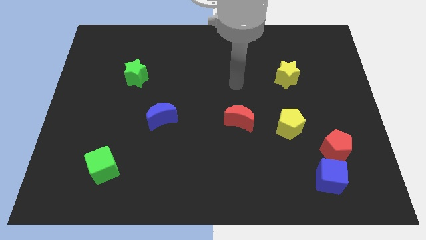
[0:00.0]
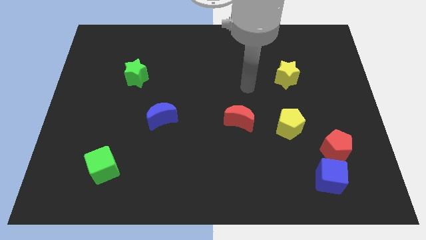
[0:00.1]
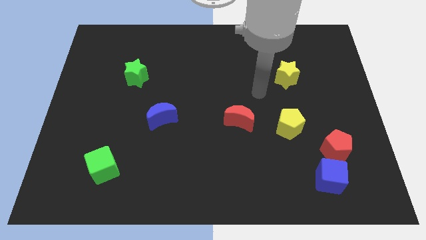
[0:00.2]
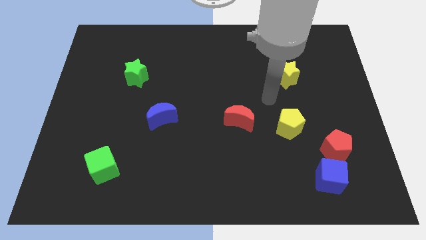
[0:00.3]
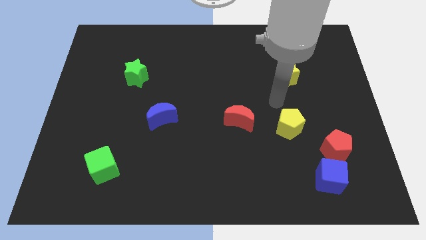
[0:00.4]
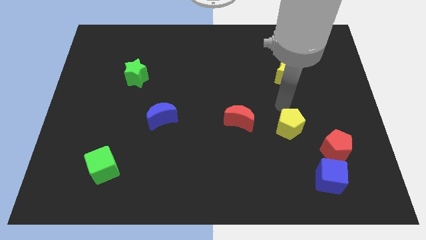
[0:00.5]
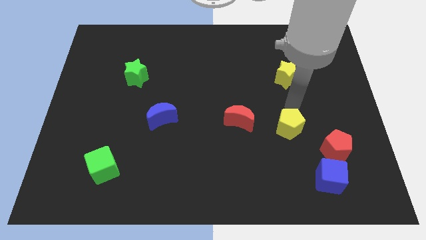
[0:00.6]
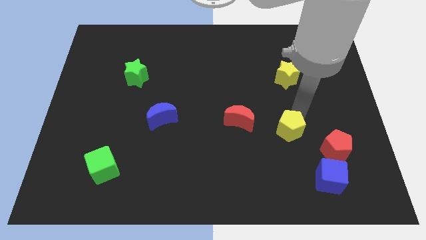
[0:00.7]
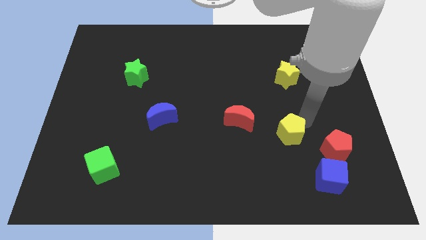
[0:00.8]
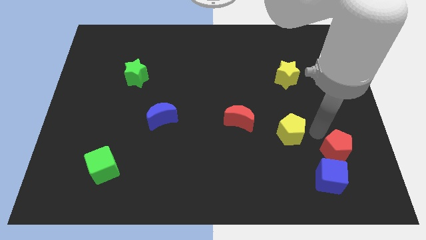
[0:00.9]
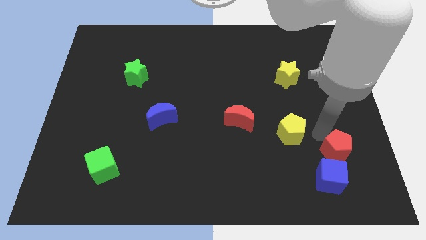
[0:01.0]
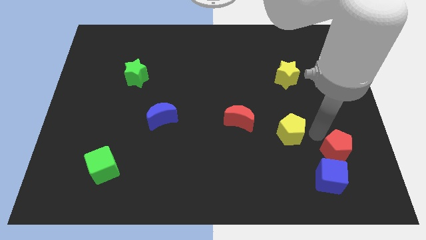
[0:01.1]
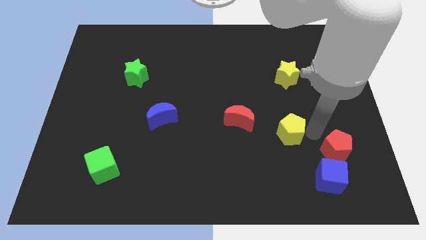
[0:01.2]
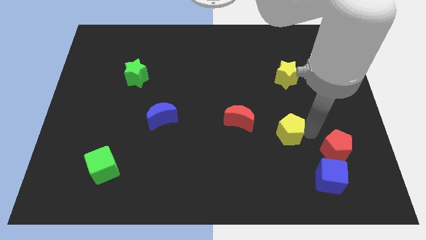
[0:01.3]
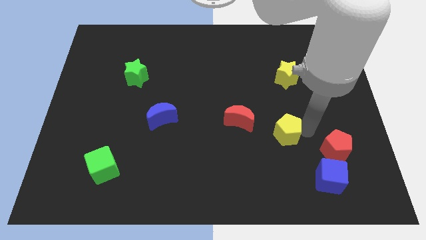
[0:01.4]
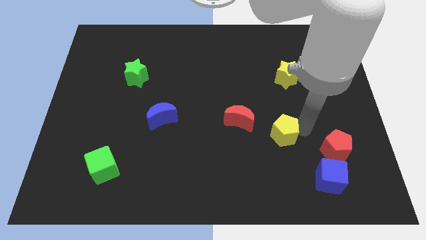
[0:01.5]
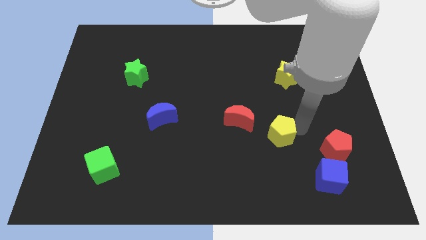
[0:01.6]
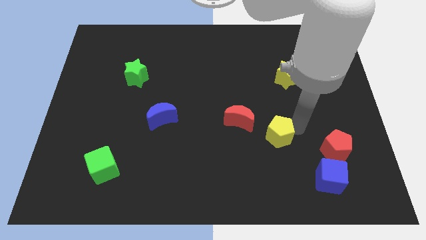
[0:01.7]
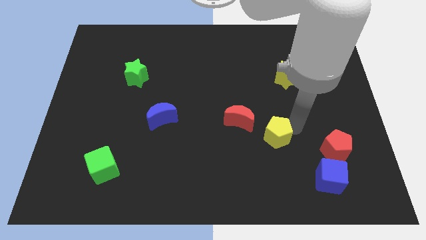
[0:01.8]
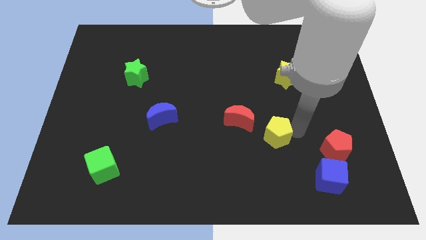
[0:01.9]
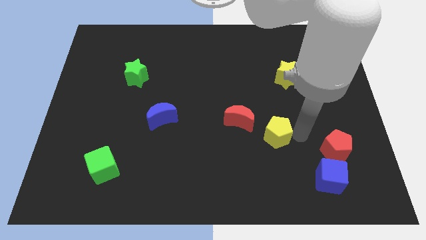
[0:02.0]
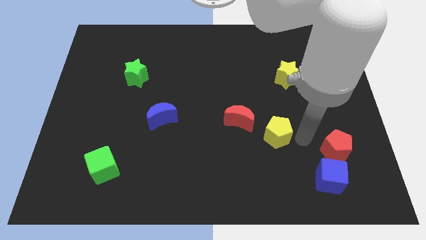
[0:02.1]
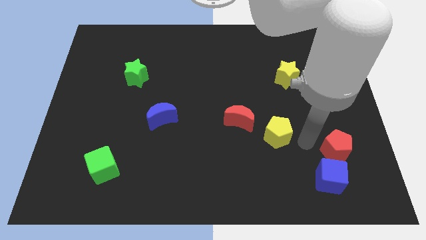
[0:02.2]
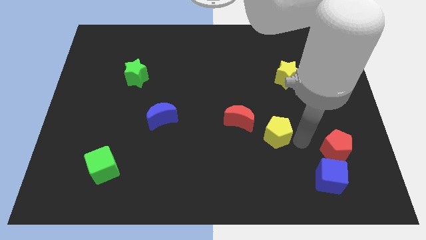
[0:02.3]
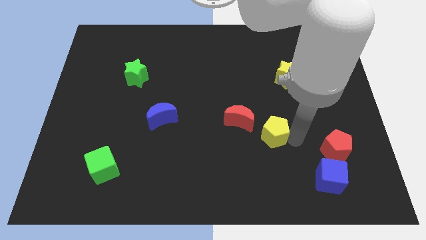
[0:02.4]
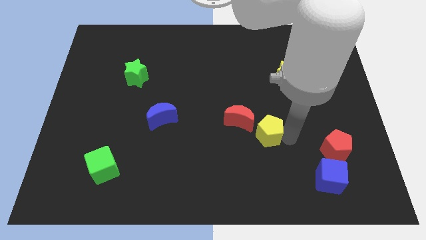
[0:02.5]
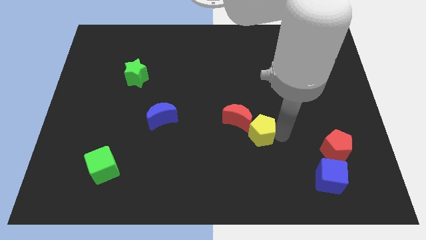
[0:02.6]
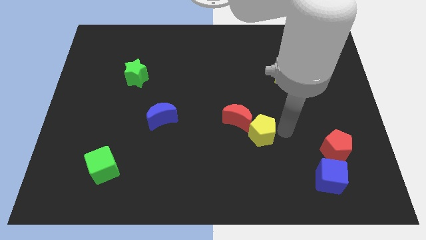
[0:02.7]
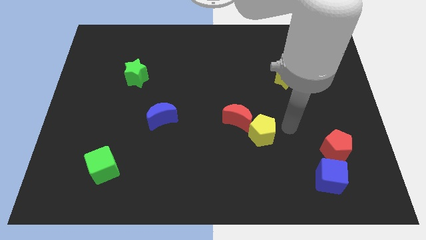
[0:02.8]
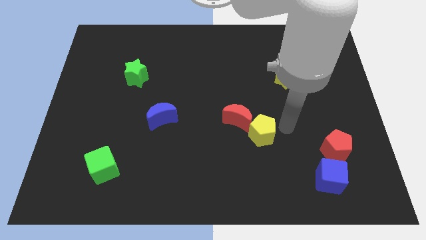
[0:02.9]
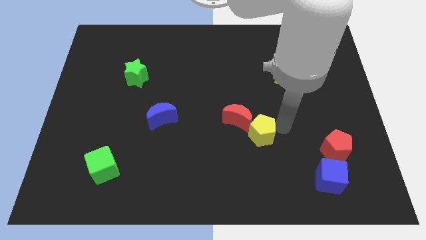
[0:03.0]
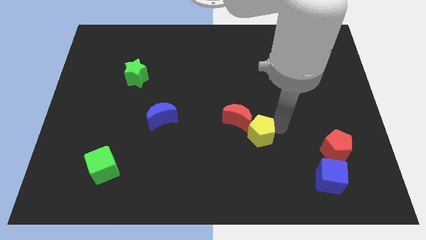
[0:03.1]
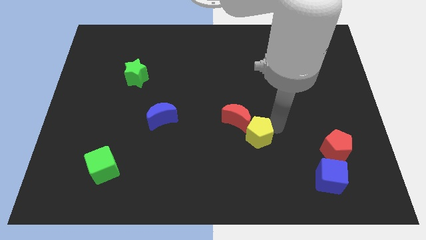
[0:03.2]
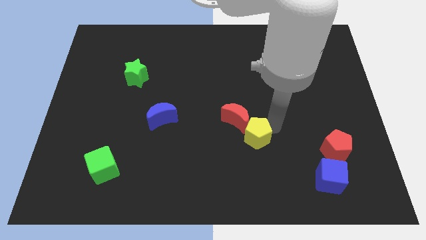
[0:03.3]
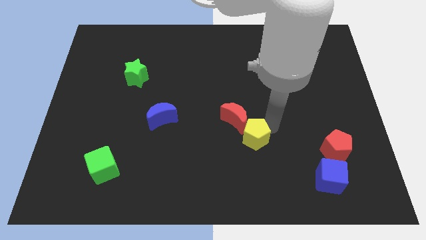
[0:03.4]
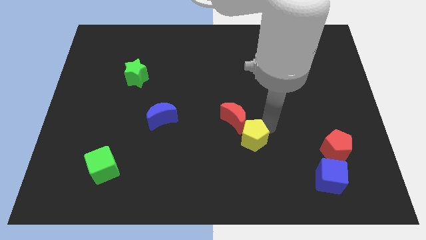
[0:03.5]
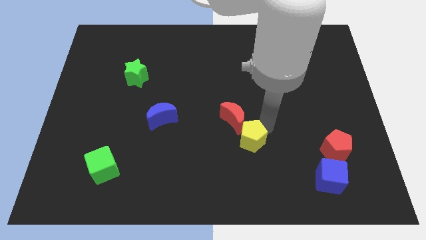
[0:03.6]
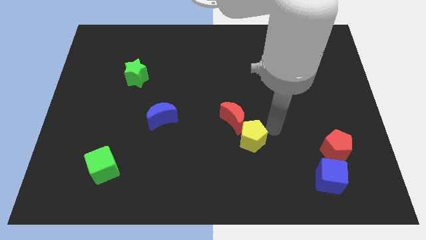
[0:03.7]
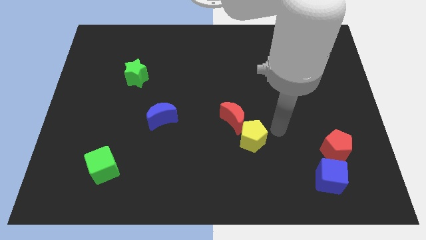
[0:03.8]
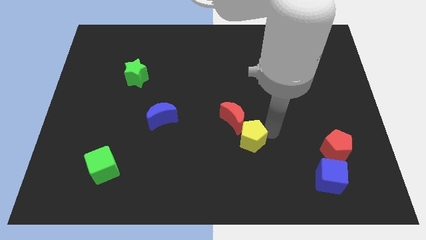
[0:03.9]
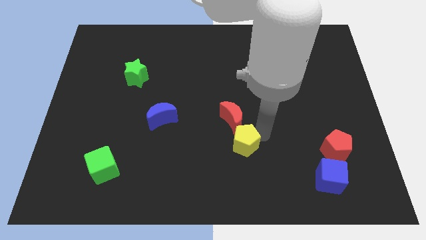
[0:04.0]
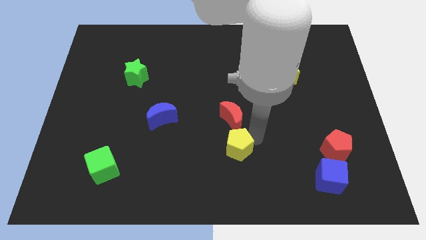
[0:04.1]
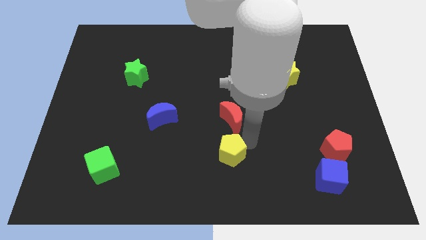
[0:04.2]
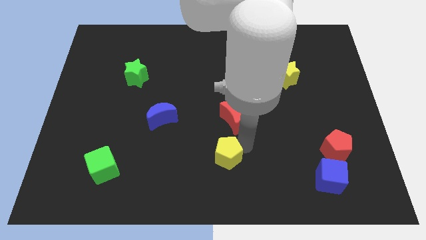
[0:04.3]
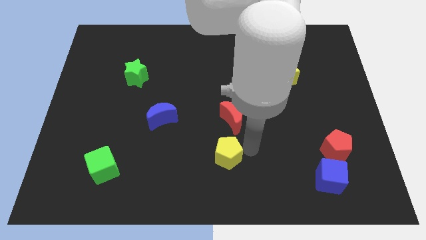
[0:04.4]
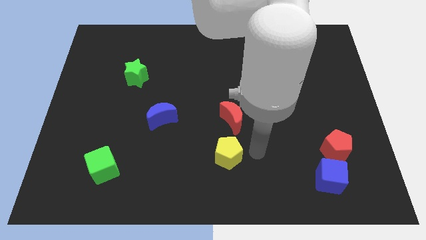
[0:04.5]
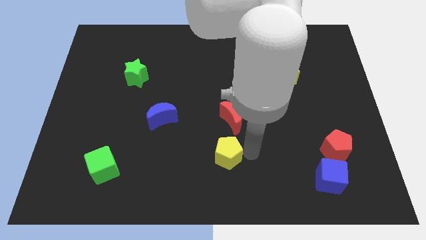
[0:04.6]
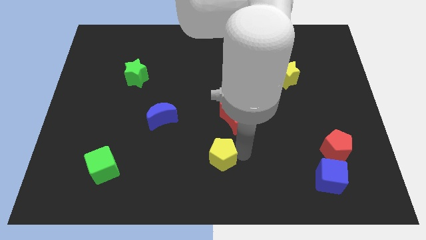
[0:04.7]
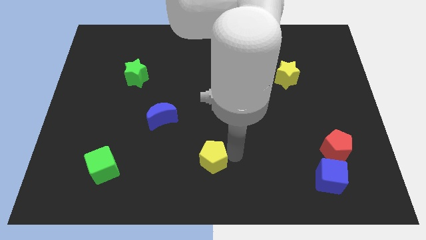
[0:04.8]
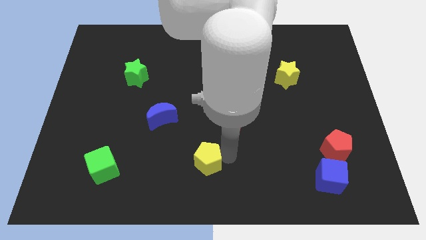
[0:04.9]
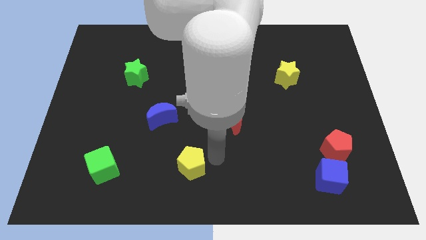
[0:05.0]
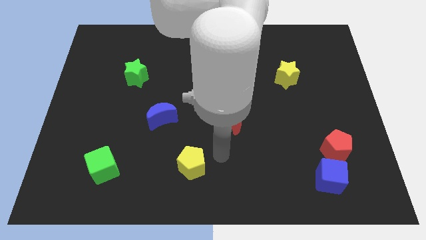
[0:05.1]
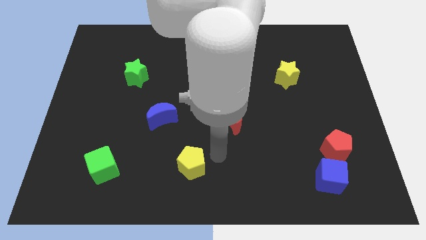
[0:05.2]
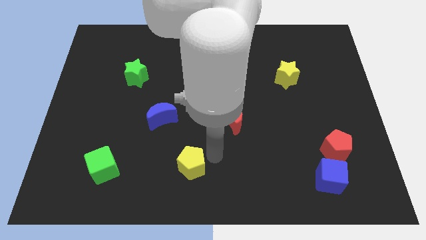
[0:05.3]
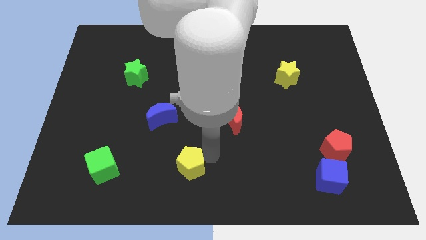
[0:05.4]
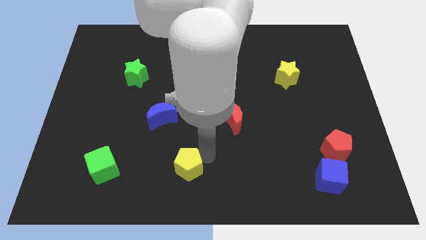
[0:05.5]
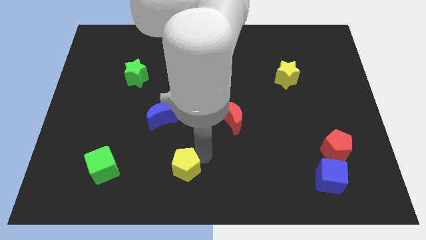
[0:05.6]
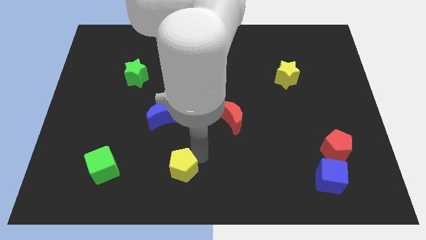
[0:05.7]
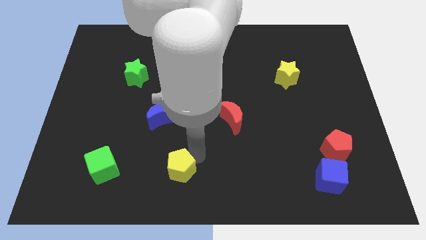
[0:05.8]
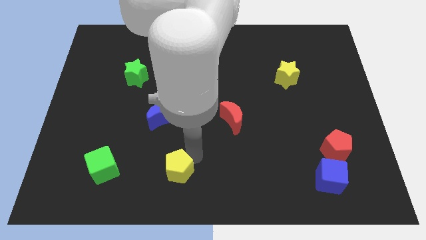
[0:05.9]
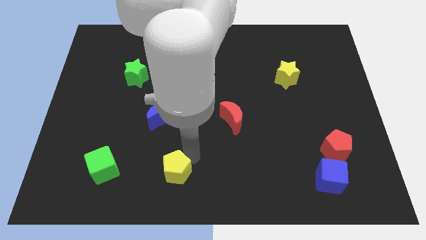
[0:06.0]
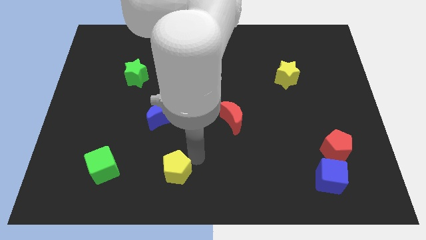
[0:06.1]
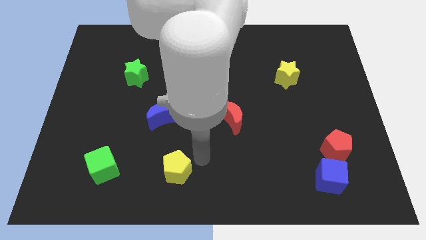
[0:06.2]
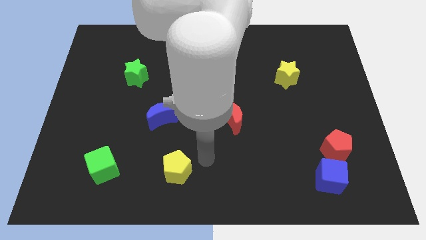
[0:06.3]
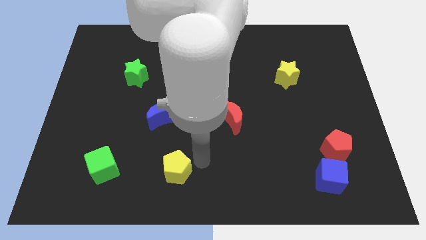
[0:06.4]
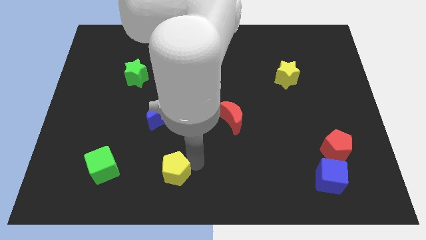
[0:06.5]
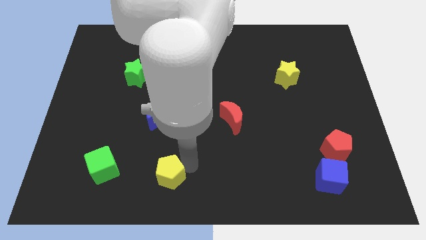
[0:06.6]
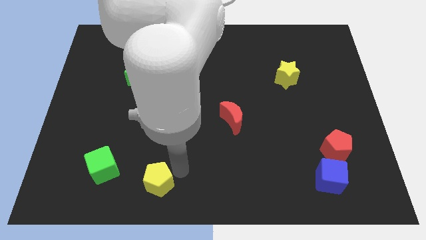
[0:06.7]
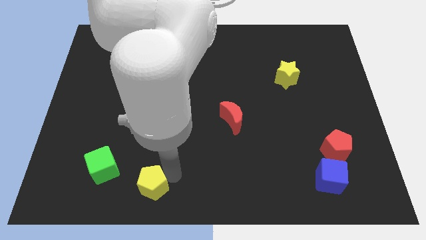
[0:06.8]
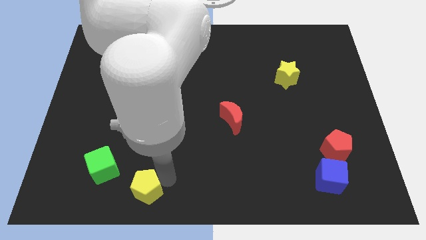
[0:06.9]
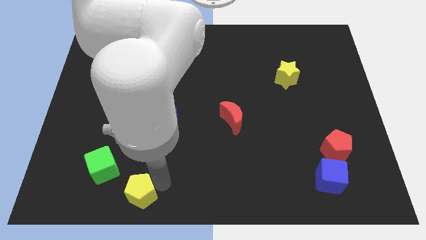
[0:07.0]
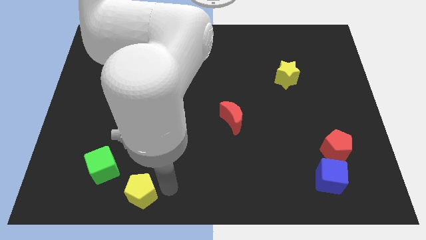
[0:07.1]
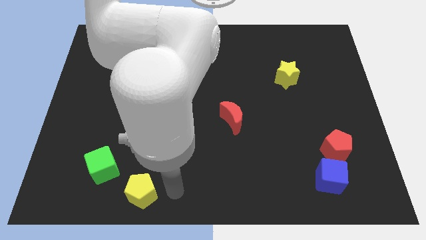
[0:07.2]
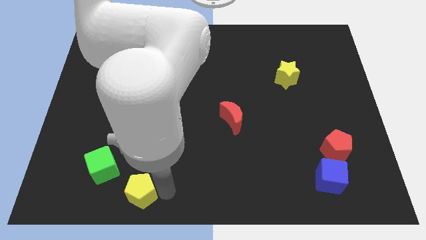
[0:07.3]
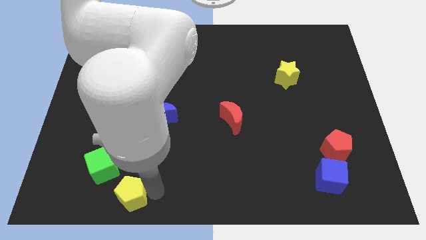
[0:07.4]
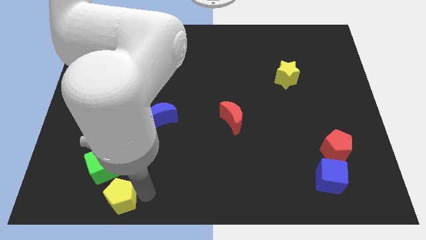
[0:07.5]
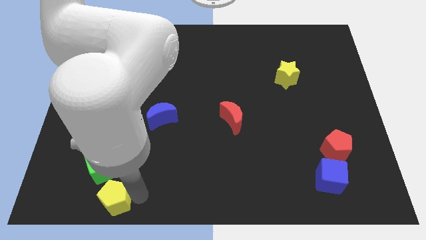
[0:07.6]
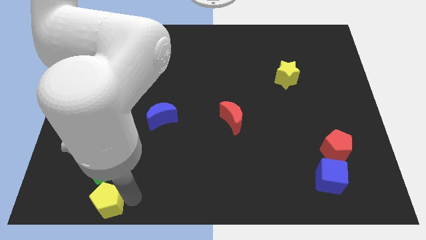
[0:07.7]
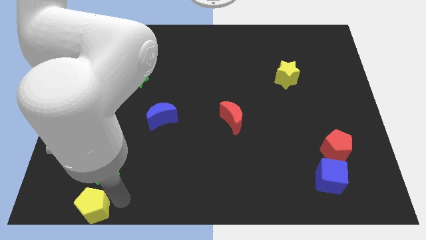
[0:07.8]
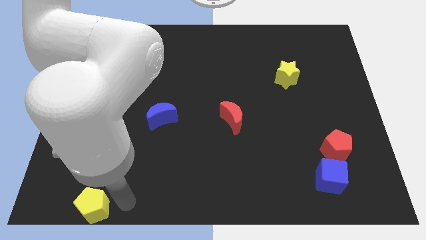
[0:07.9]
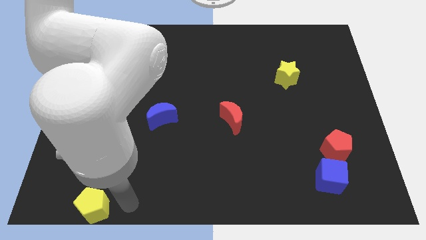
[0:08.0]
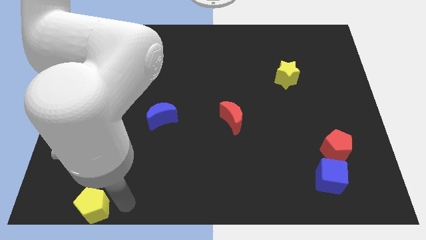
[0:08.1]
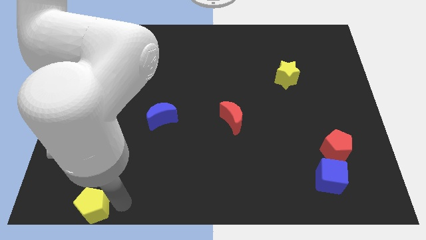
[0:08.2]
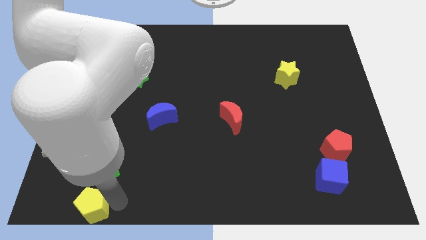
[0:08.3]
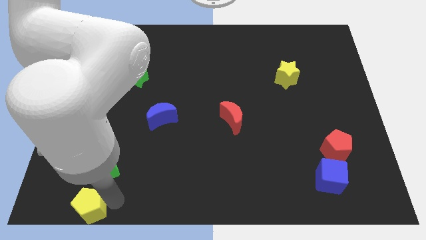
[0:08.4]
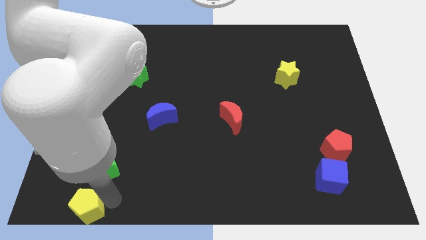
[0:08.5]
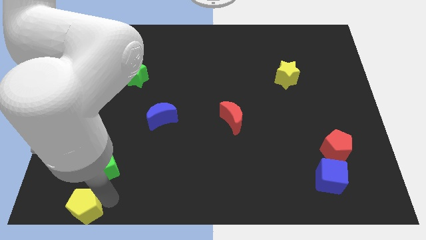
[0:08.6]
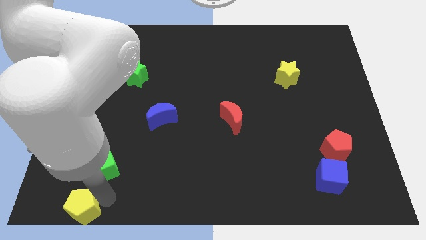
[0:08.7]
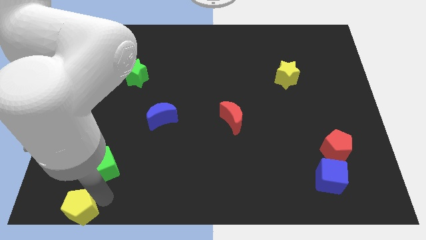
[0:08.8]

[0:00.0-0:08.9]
put the yellow pentagon to the bottom left of the board
